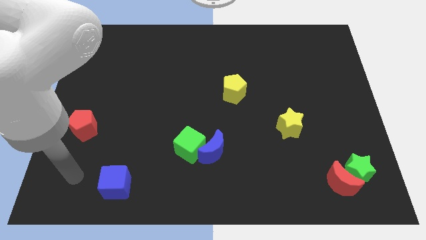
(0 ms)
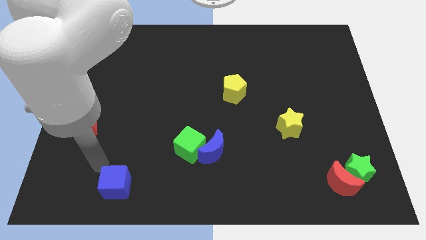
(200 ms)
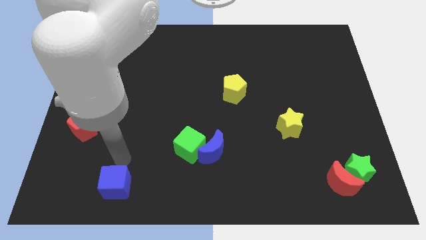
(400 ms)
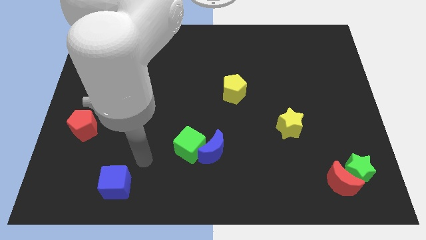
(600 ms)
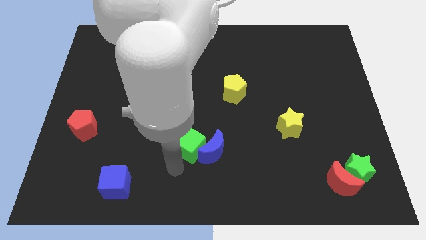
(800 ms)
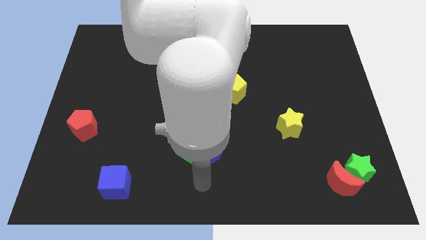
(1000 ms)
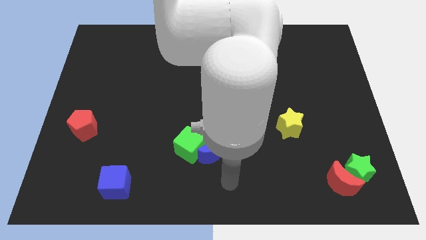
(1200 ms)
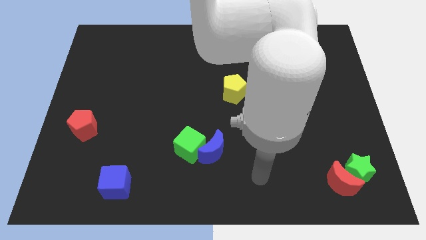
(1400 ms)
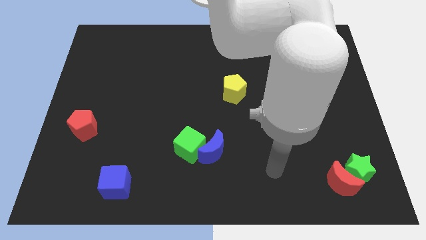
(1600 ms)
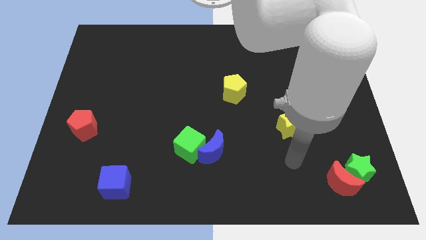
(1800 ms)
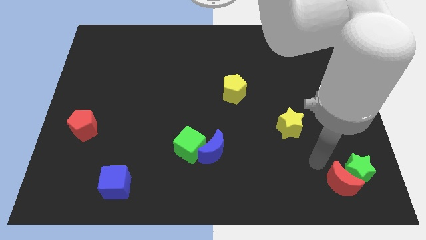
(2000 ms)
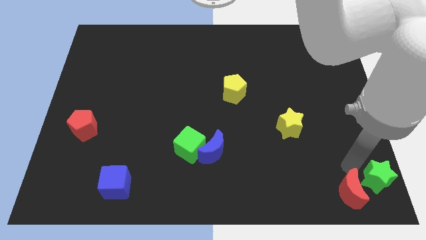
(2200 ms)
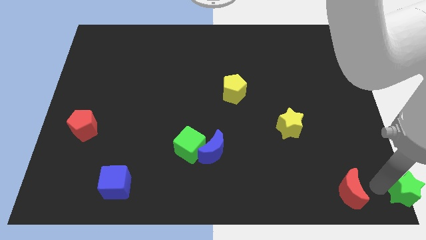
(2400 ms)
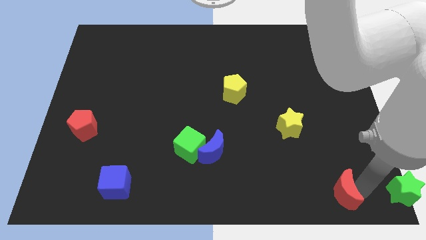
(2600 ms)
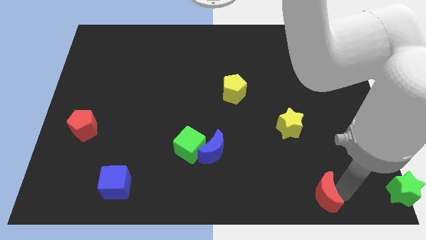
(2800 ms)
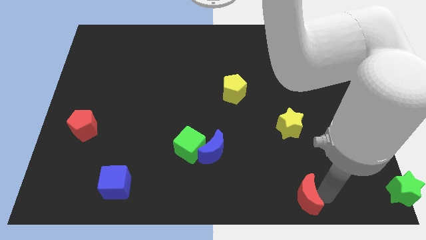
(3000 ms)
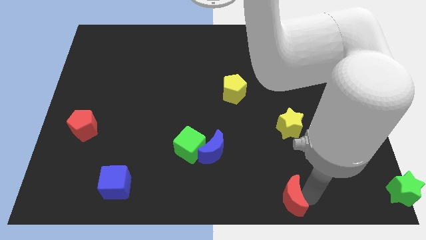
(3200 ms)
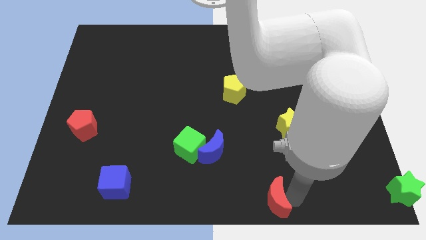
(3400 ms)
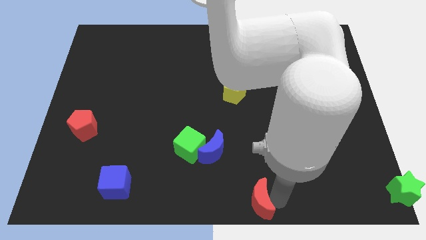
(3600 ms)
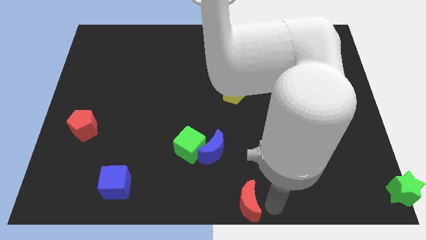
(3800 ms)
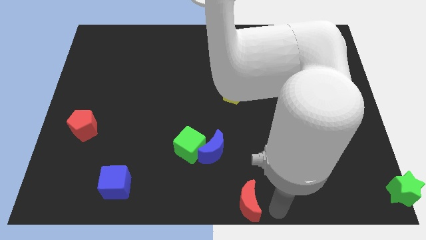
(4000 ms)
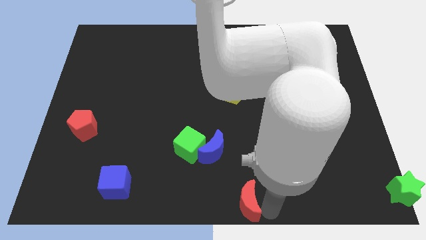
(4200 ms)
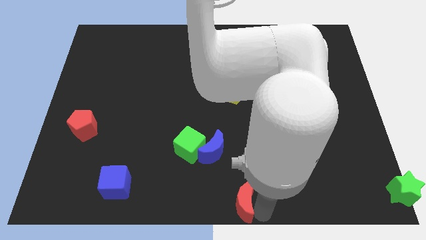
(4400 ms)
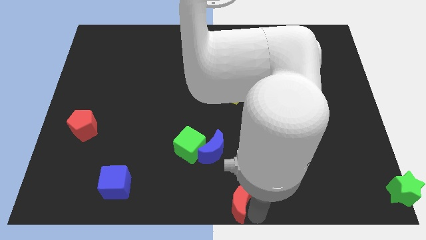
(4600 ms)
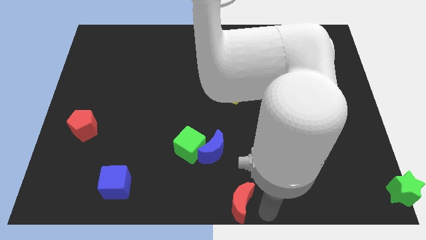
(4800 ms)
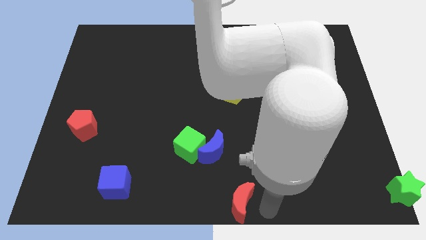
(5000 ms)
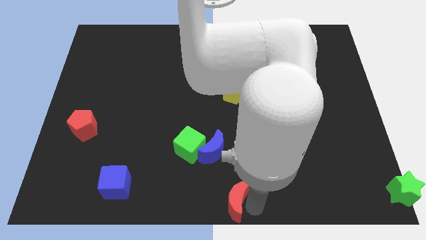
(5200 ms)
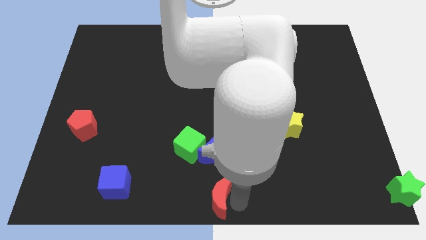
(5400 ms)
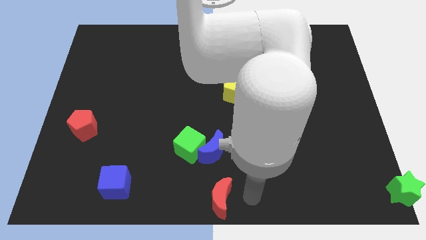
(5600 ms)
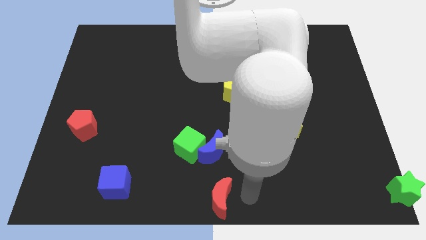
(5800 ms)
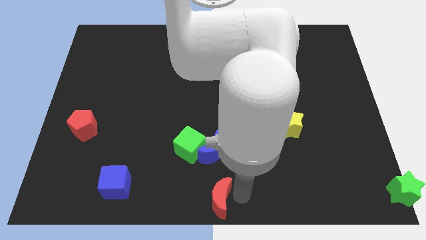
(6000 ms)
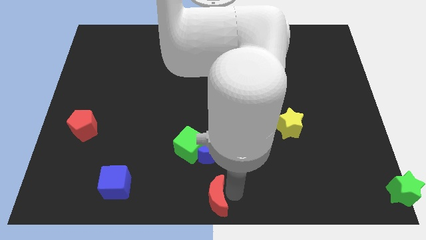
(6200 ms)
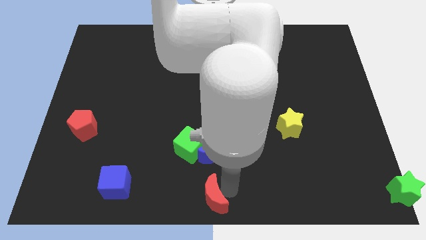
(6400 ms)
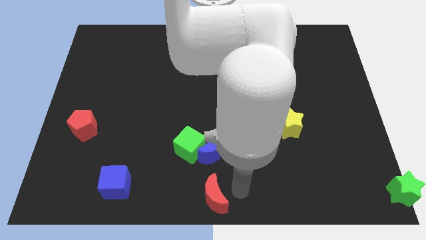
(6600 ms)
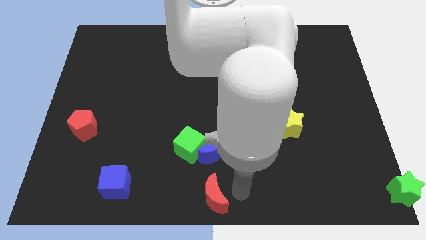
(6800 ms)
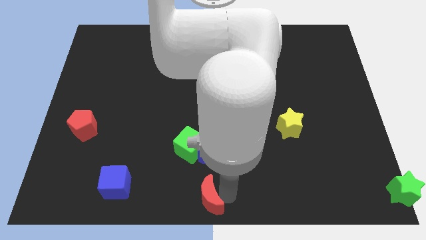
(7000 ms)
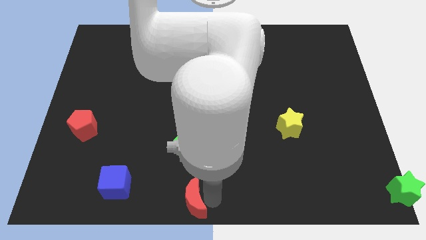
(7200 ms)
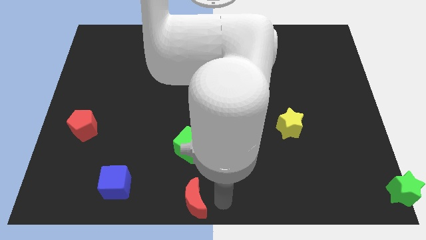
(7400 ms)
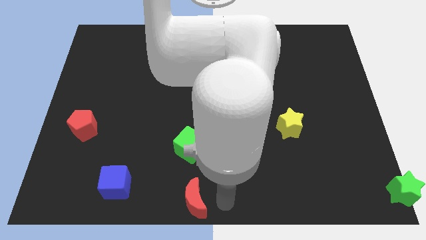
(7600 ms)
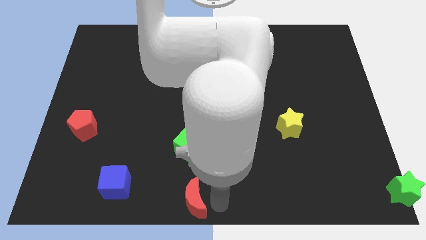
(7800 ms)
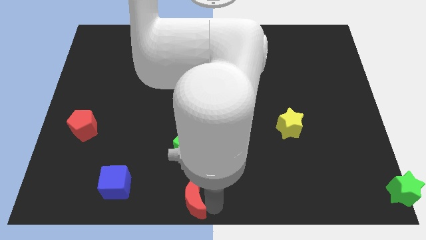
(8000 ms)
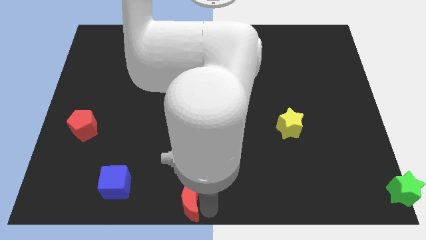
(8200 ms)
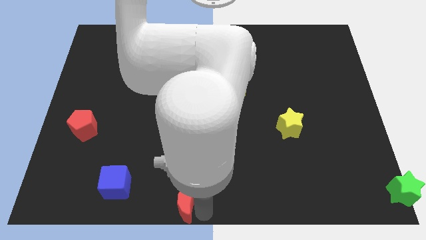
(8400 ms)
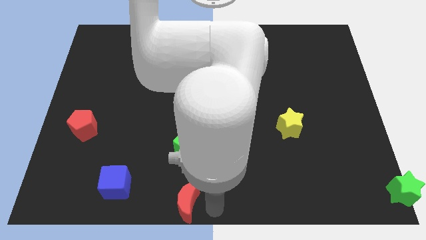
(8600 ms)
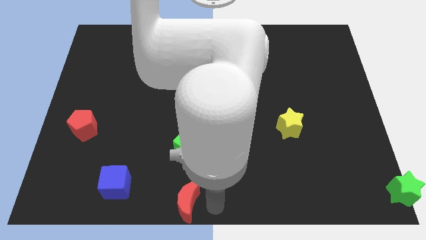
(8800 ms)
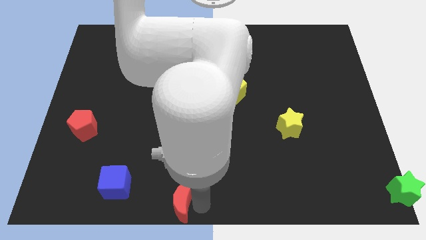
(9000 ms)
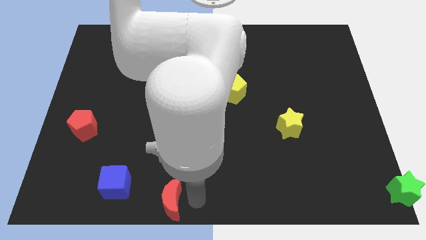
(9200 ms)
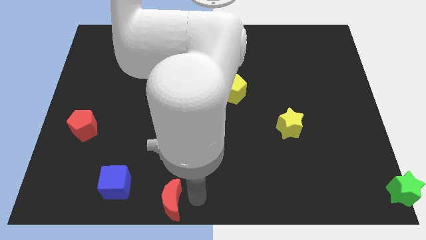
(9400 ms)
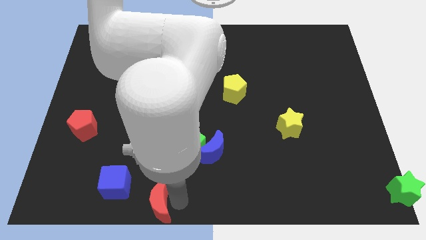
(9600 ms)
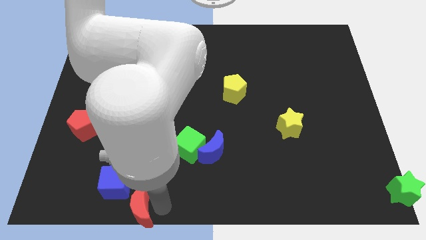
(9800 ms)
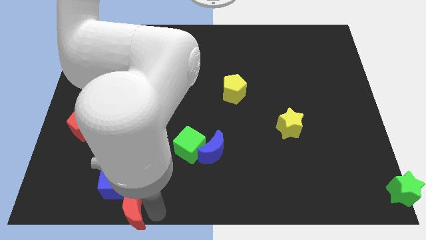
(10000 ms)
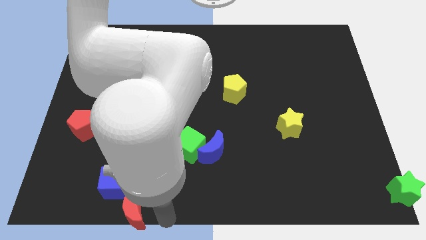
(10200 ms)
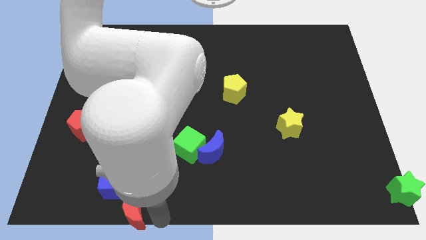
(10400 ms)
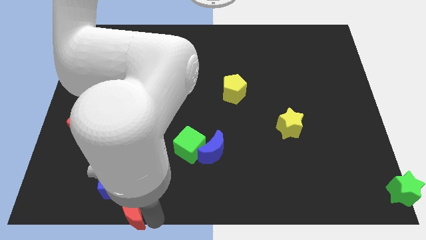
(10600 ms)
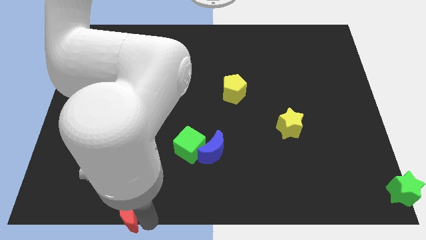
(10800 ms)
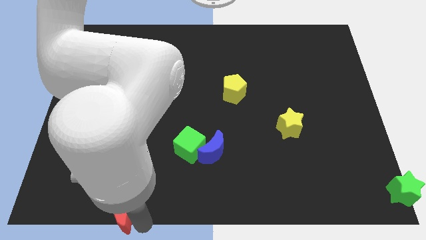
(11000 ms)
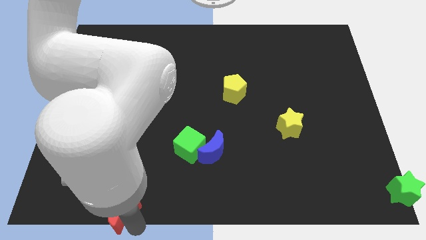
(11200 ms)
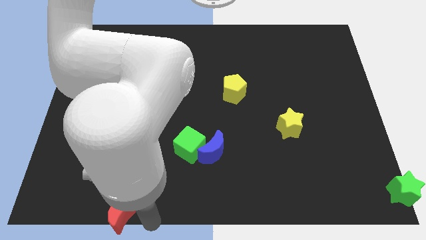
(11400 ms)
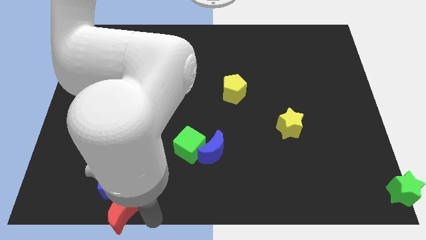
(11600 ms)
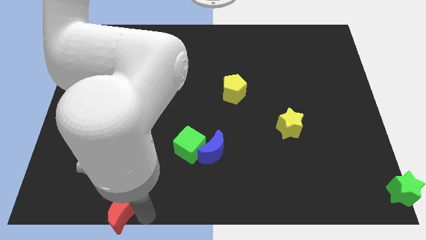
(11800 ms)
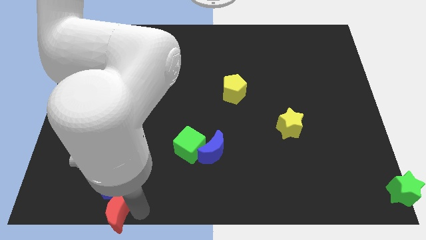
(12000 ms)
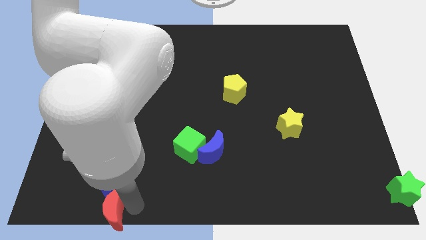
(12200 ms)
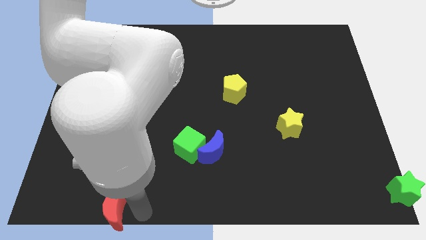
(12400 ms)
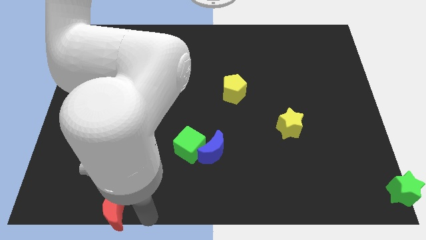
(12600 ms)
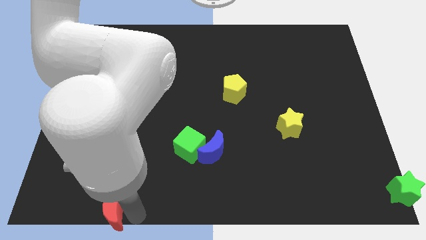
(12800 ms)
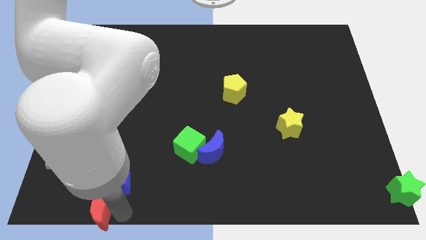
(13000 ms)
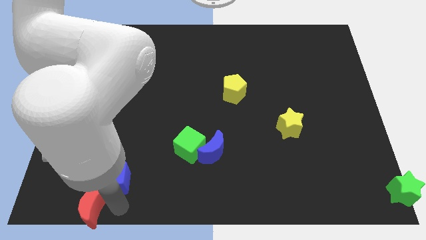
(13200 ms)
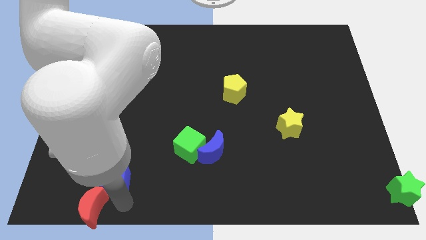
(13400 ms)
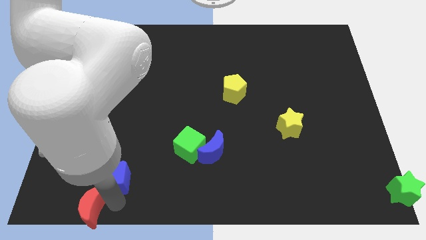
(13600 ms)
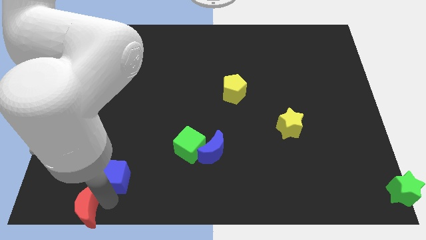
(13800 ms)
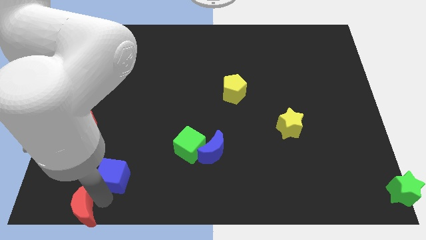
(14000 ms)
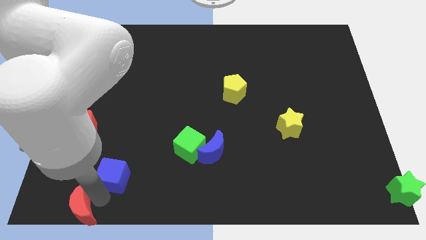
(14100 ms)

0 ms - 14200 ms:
move the red moon to the bottom left
